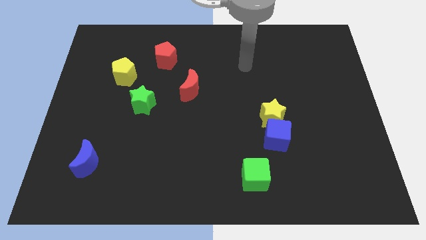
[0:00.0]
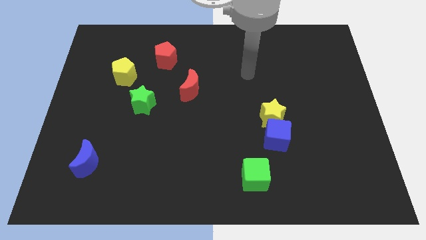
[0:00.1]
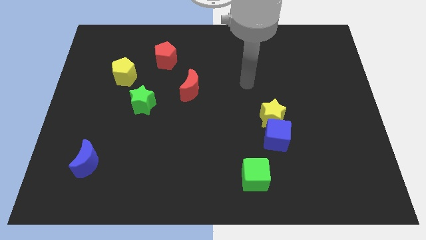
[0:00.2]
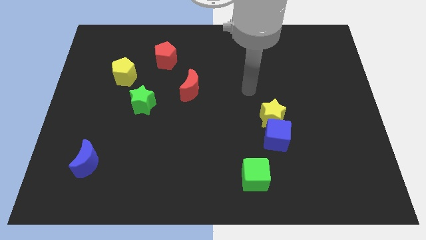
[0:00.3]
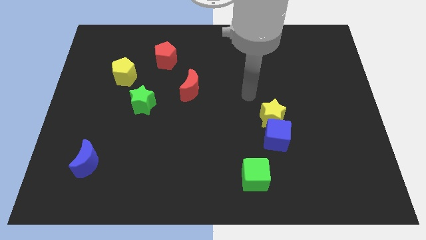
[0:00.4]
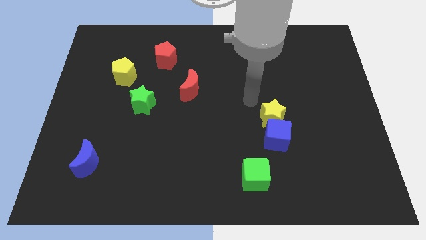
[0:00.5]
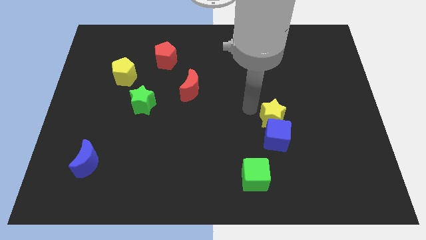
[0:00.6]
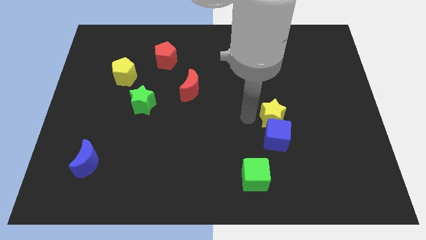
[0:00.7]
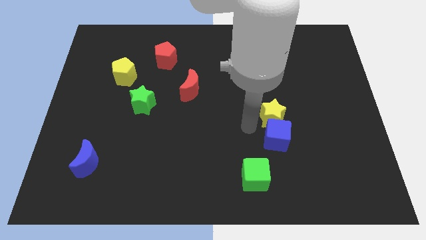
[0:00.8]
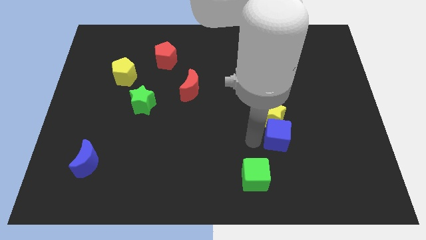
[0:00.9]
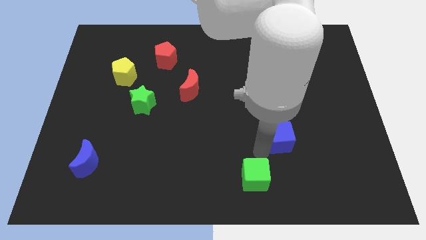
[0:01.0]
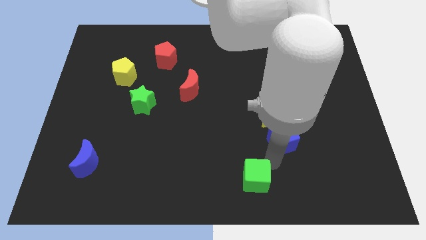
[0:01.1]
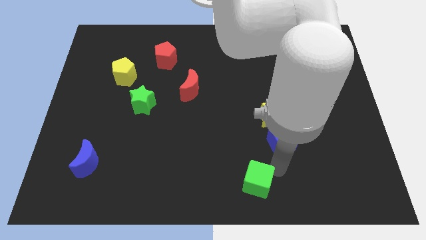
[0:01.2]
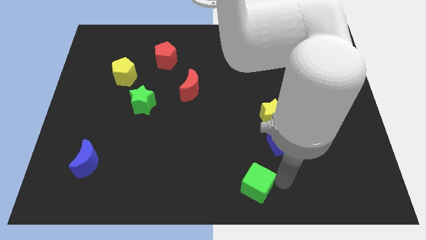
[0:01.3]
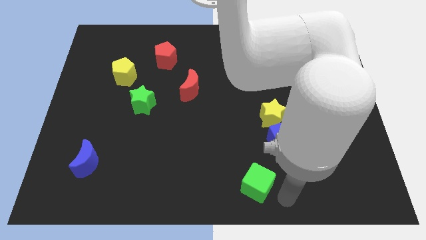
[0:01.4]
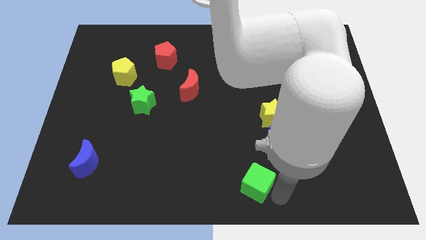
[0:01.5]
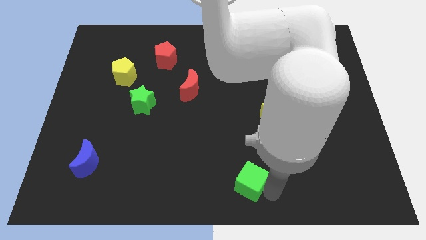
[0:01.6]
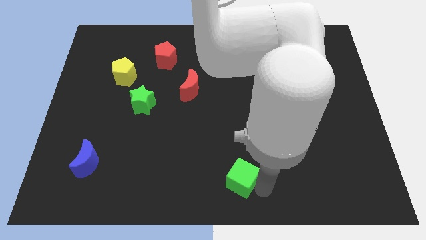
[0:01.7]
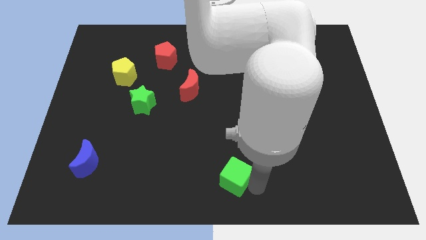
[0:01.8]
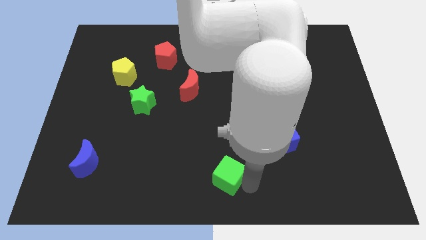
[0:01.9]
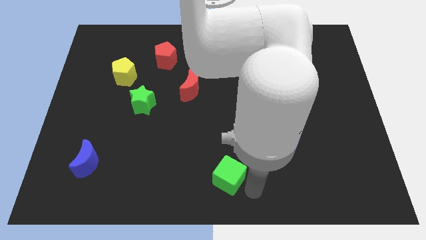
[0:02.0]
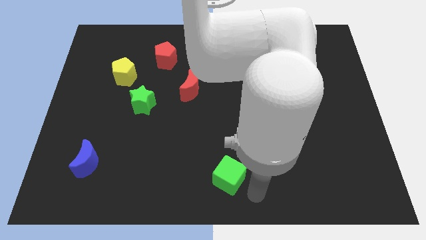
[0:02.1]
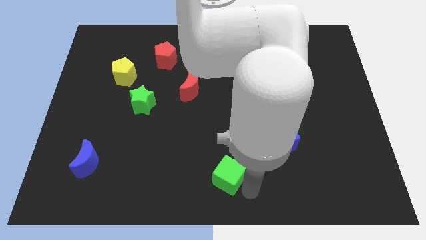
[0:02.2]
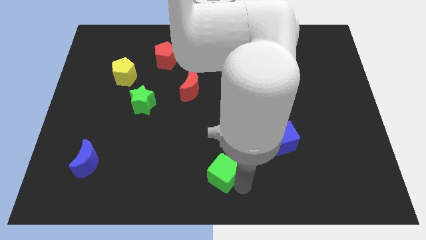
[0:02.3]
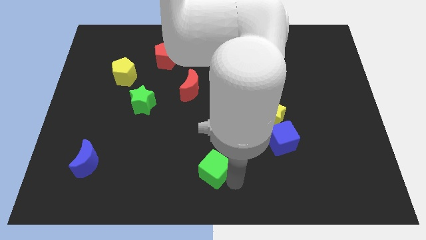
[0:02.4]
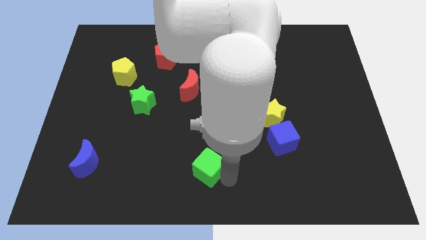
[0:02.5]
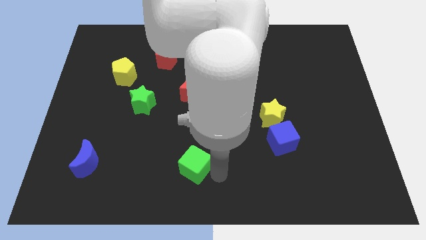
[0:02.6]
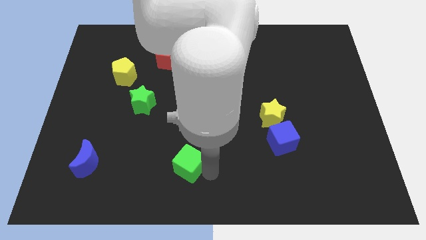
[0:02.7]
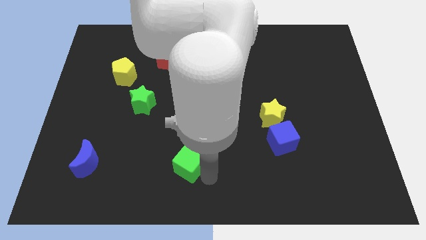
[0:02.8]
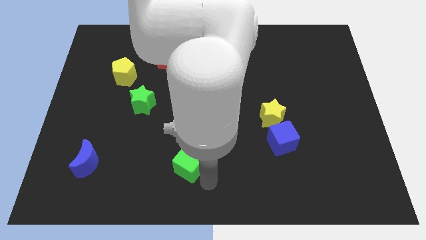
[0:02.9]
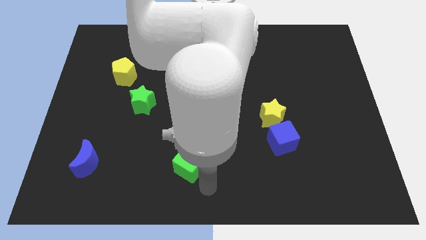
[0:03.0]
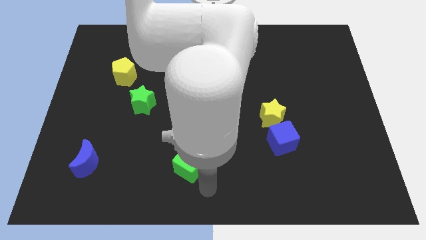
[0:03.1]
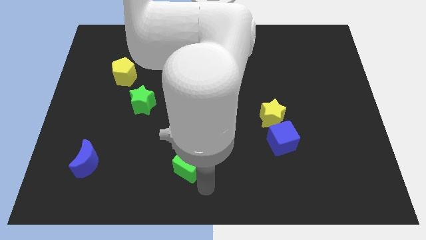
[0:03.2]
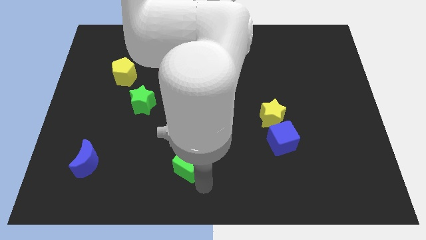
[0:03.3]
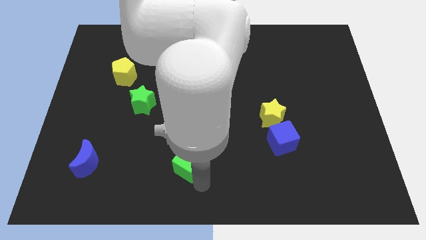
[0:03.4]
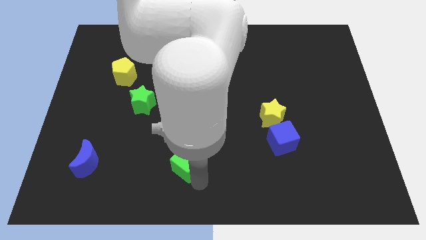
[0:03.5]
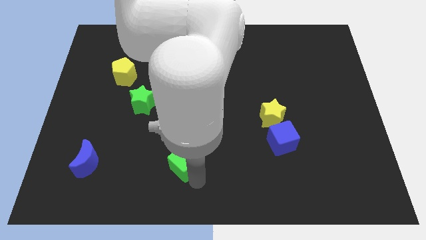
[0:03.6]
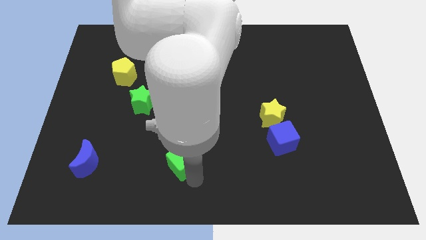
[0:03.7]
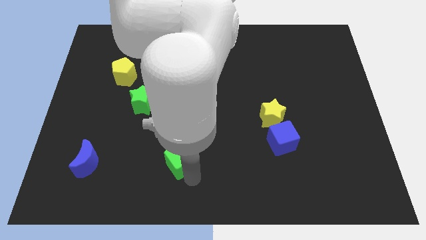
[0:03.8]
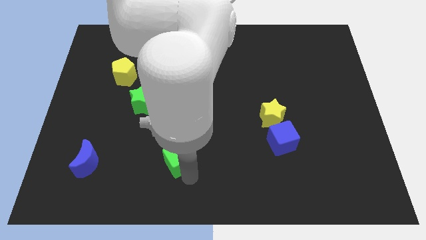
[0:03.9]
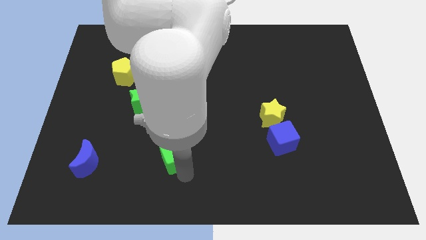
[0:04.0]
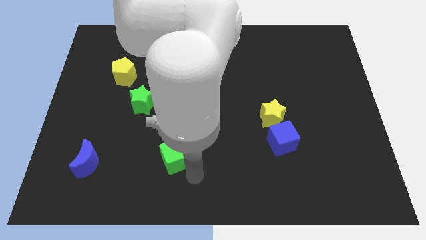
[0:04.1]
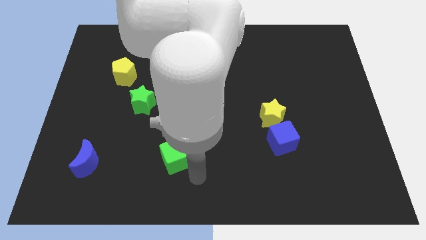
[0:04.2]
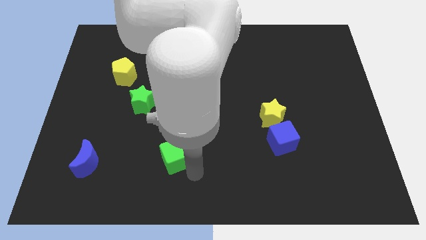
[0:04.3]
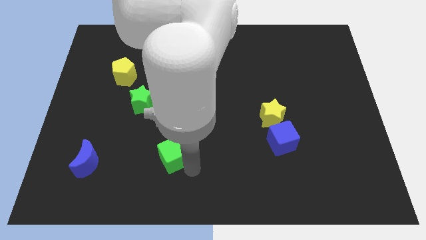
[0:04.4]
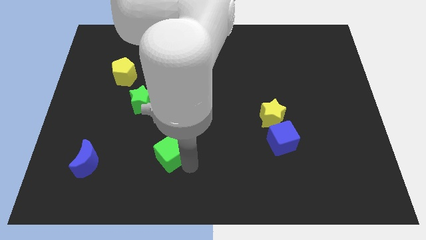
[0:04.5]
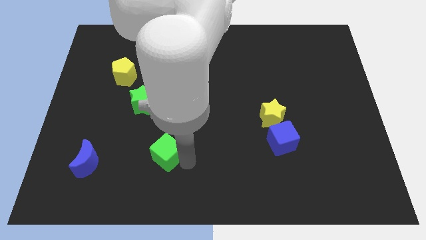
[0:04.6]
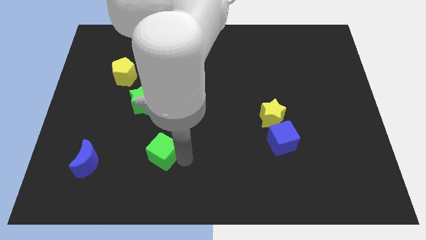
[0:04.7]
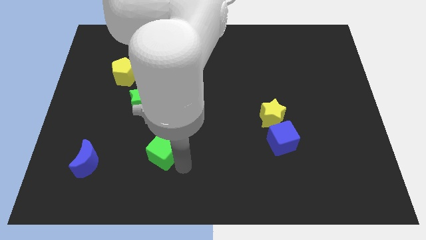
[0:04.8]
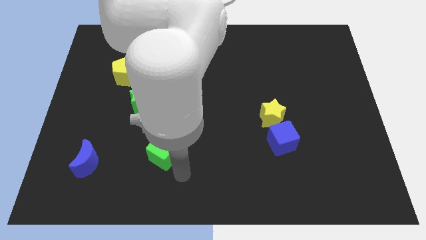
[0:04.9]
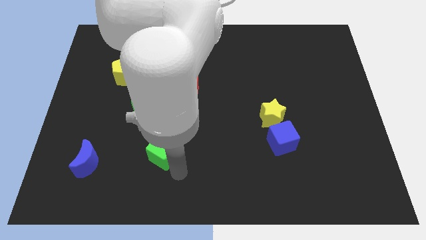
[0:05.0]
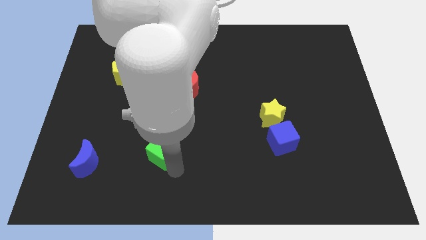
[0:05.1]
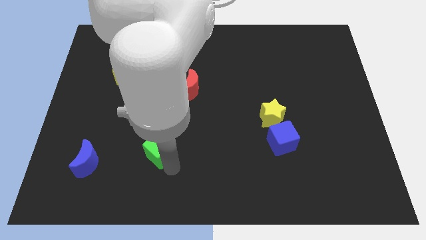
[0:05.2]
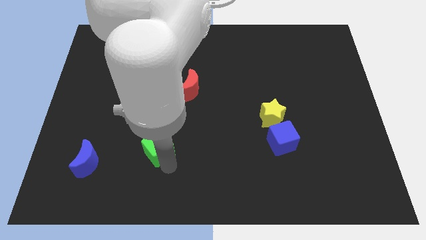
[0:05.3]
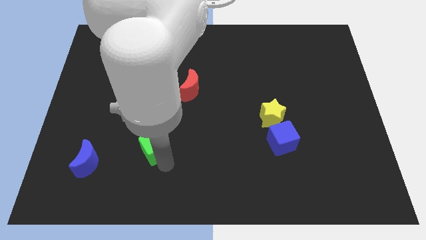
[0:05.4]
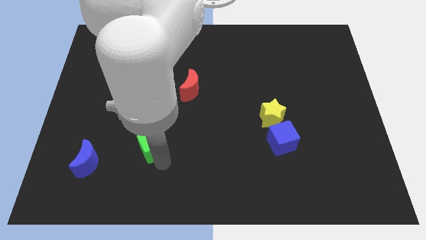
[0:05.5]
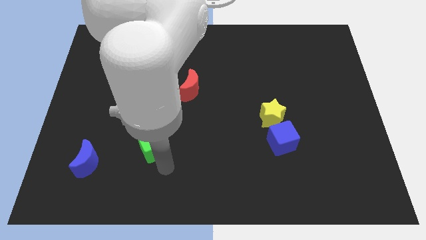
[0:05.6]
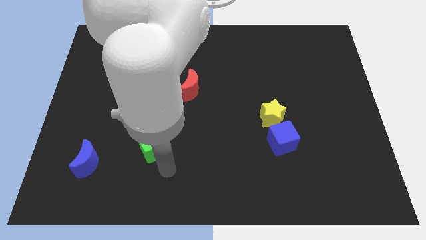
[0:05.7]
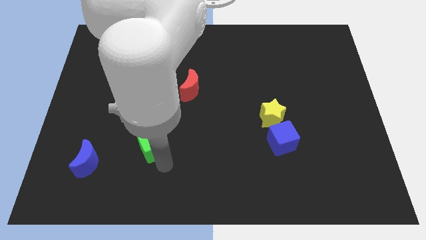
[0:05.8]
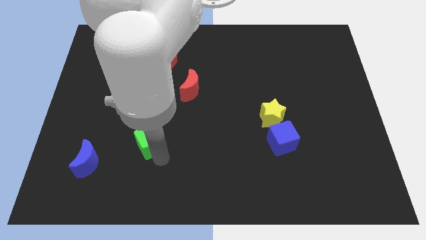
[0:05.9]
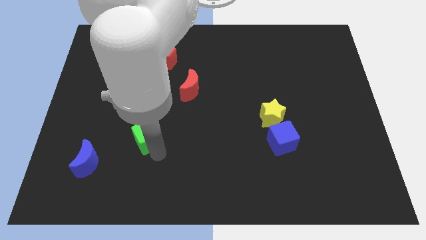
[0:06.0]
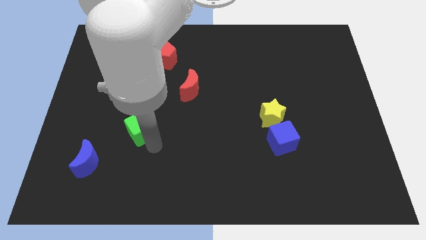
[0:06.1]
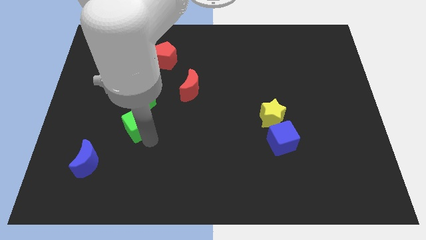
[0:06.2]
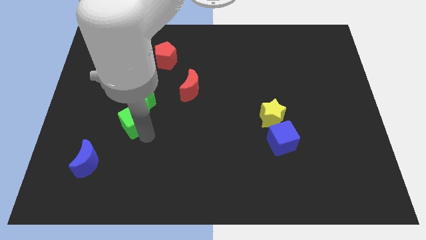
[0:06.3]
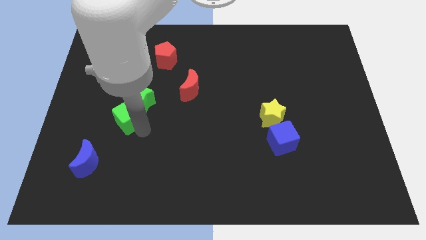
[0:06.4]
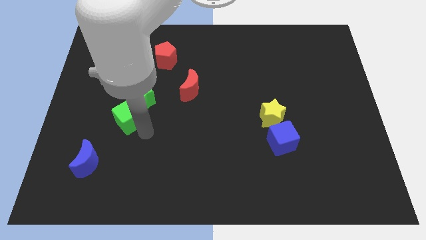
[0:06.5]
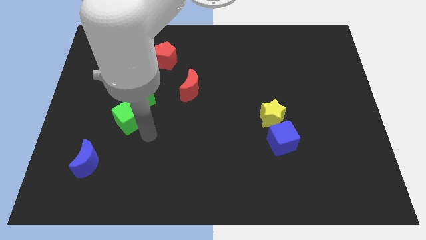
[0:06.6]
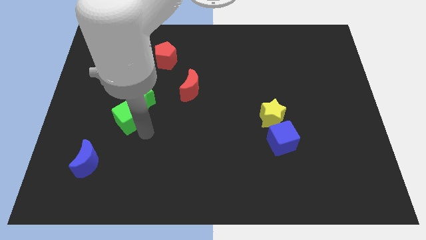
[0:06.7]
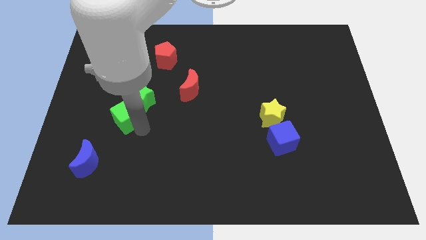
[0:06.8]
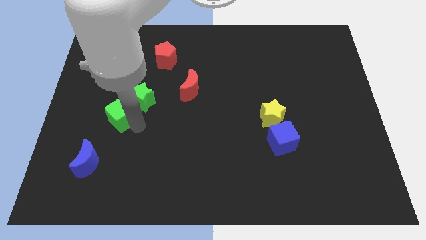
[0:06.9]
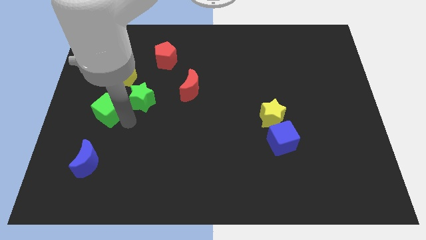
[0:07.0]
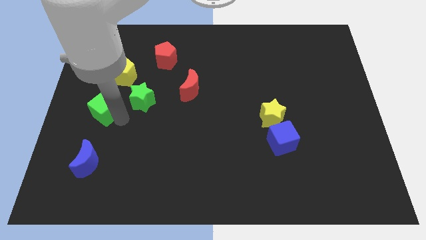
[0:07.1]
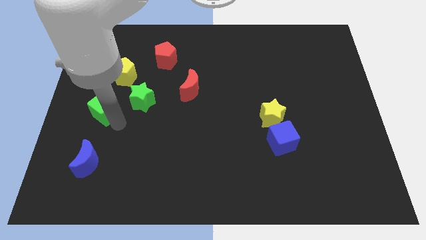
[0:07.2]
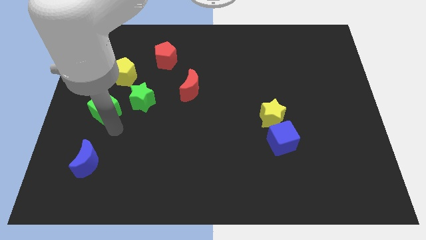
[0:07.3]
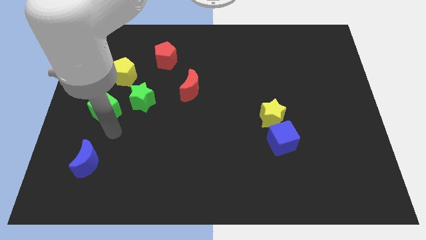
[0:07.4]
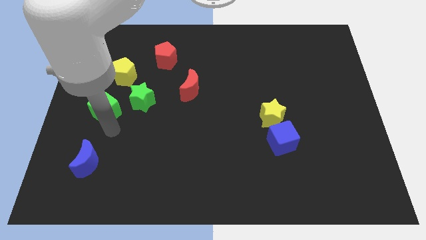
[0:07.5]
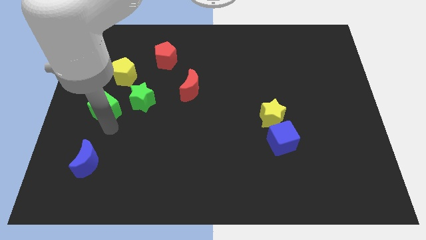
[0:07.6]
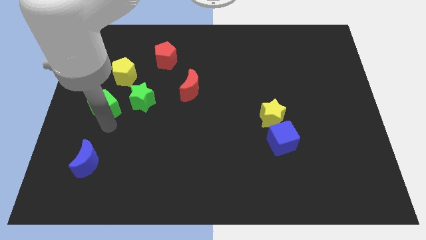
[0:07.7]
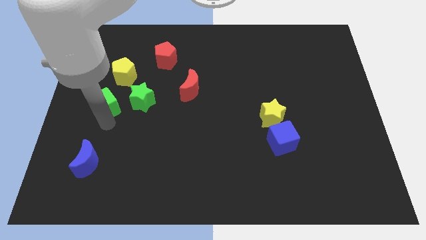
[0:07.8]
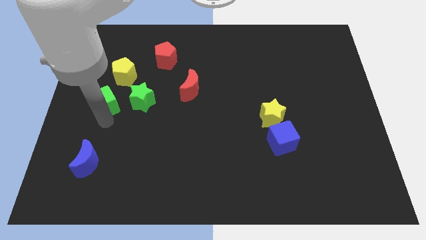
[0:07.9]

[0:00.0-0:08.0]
put the green cube to the bottom left side of the yellow pentagon
